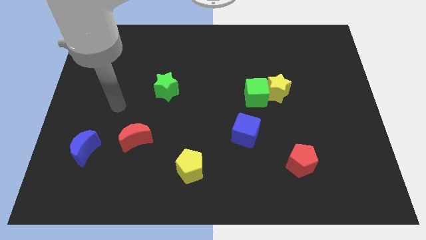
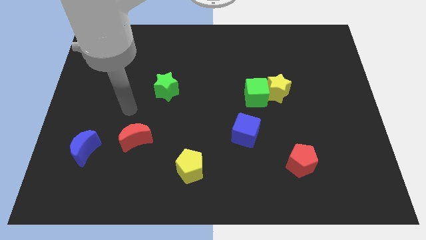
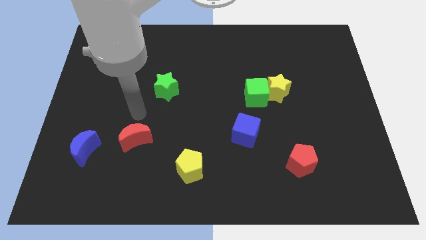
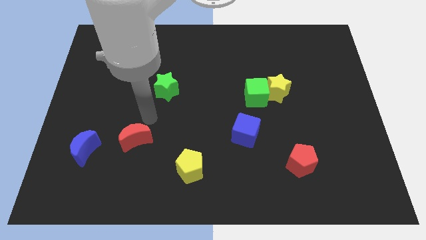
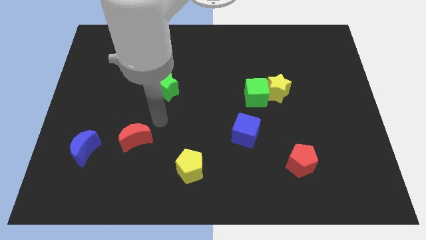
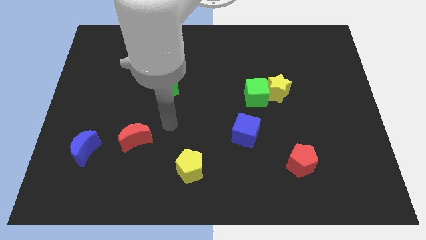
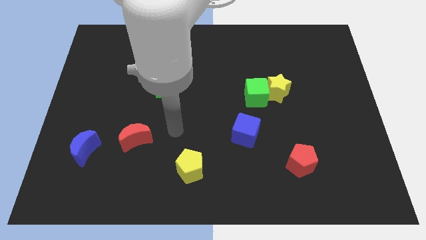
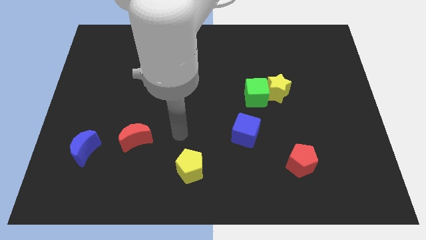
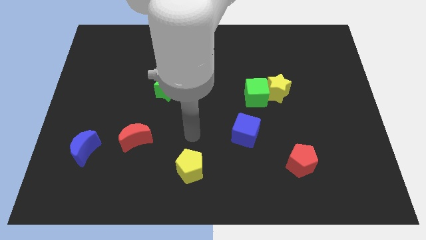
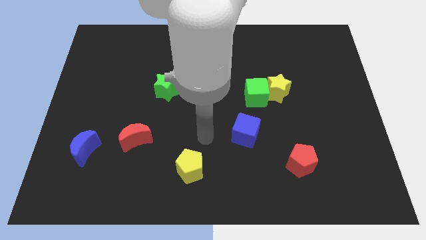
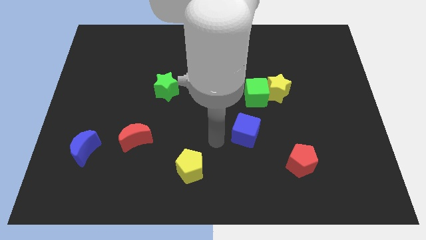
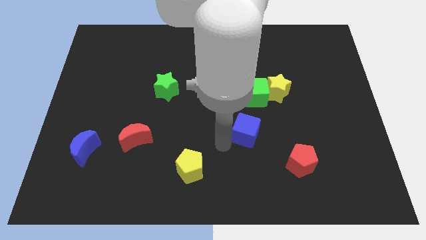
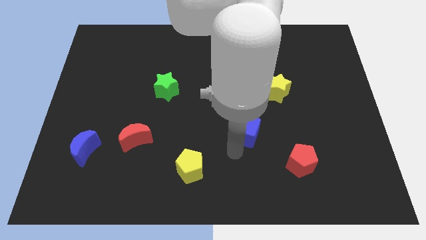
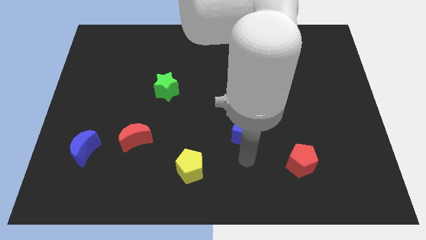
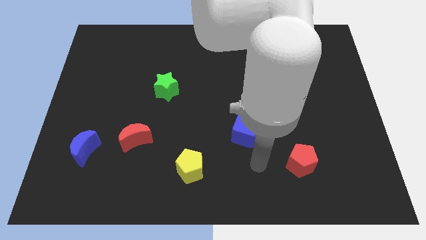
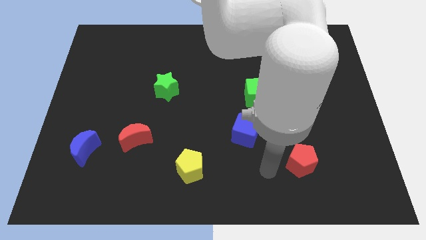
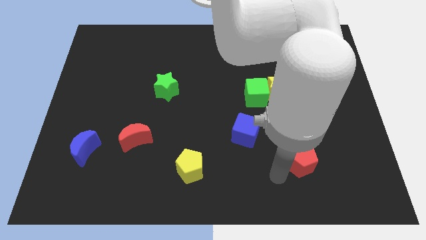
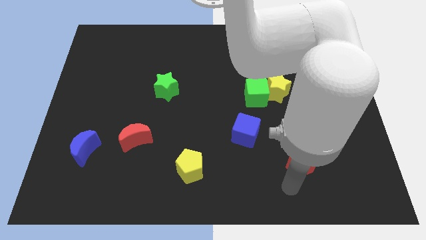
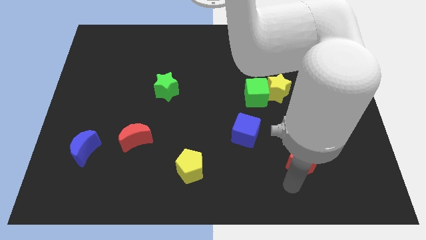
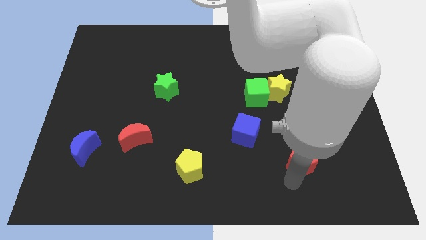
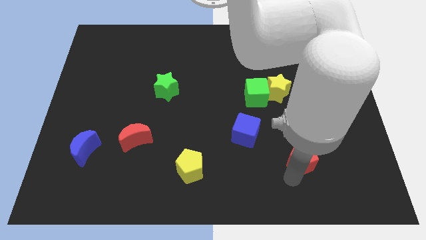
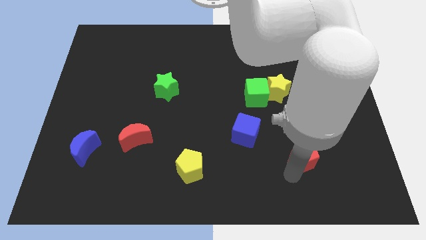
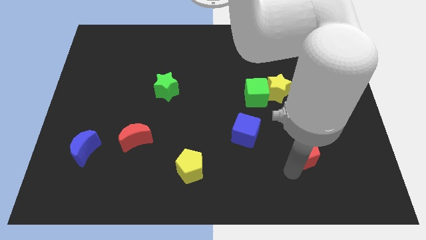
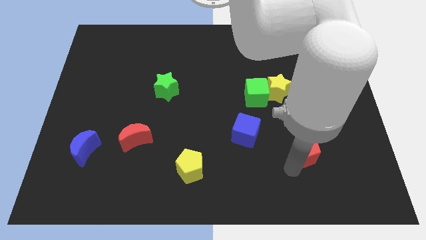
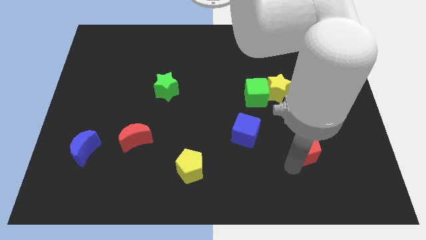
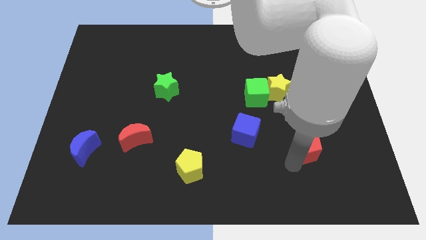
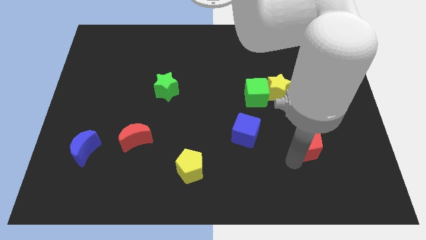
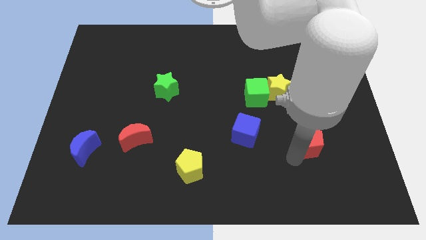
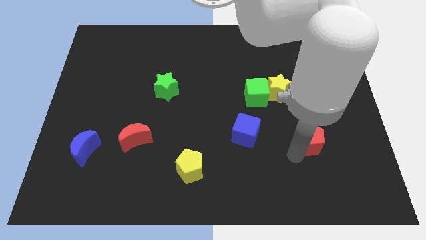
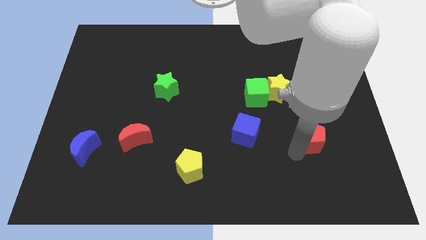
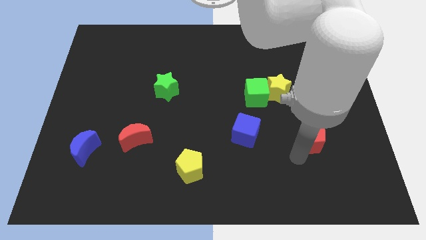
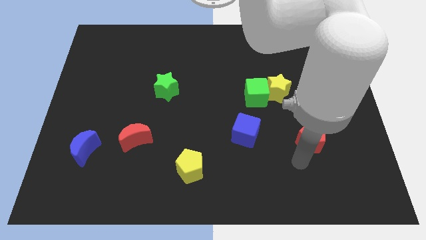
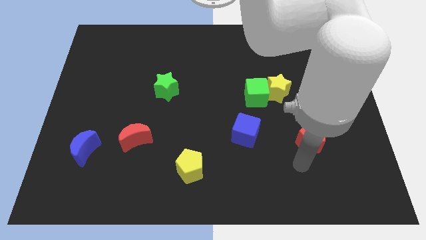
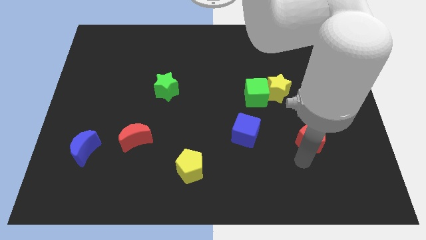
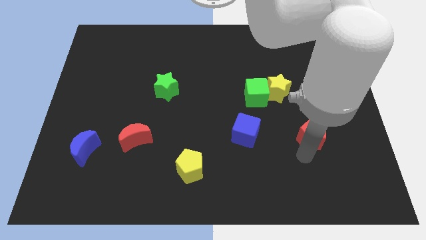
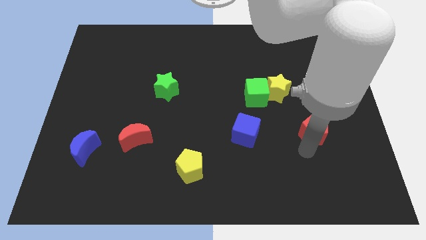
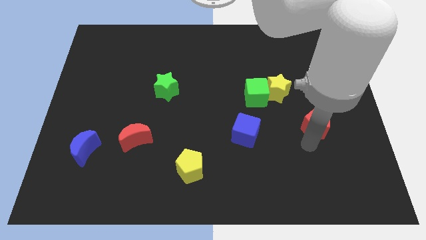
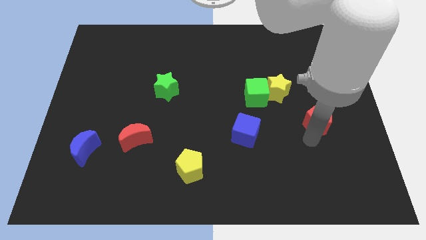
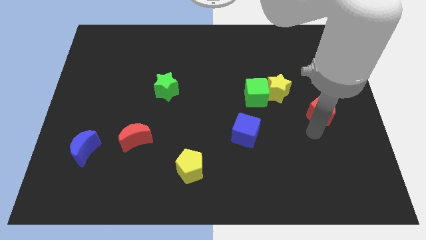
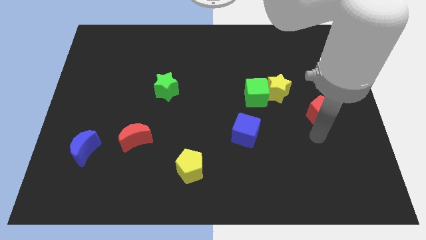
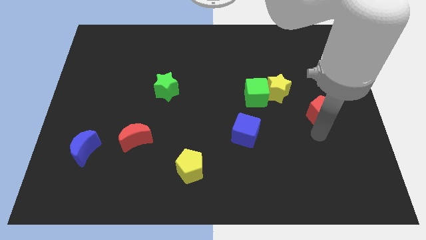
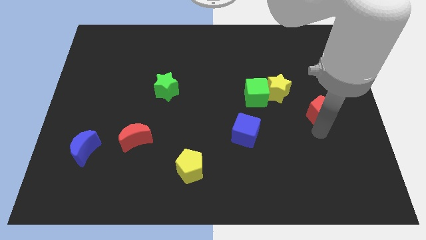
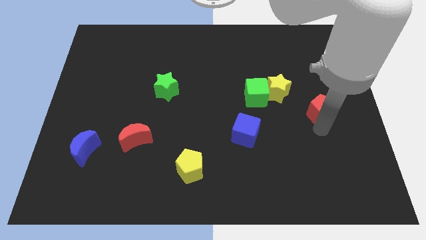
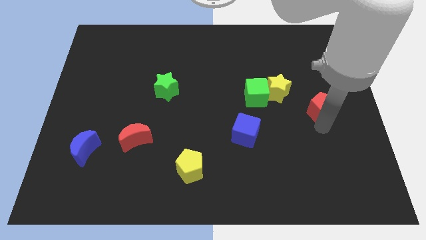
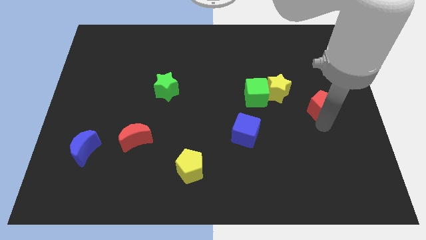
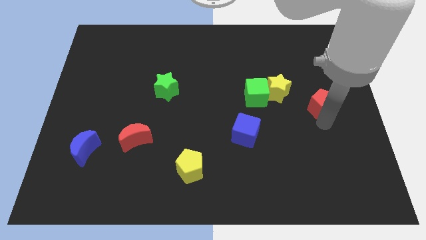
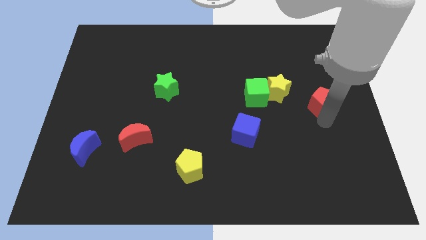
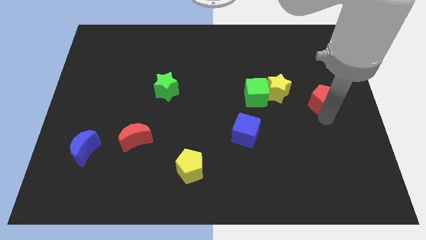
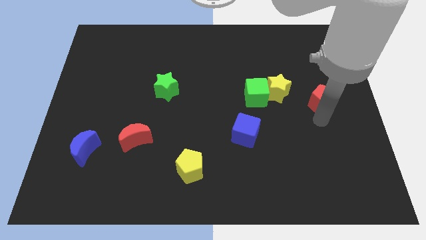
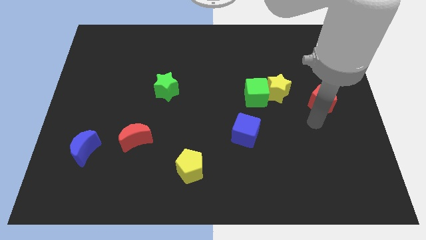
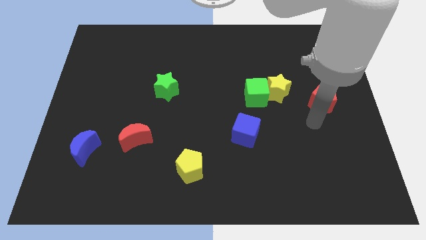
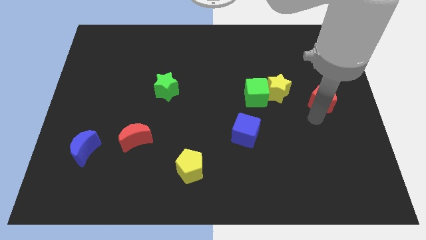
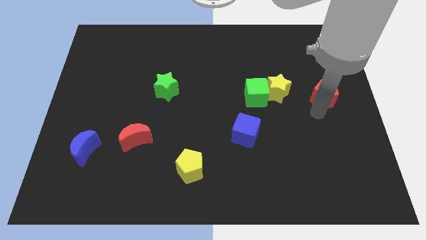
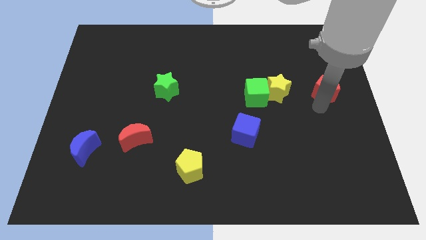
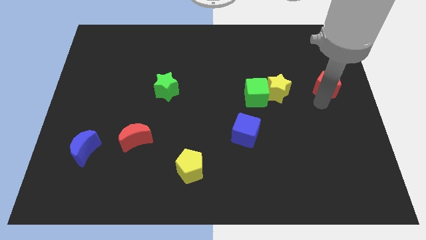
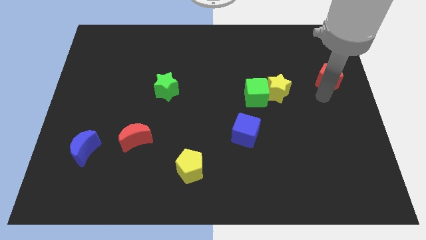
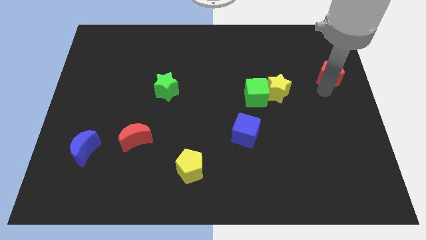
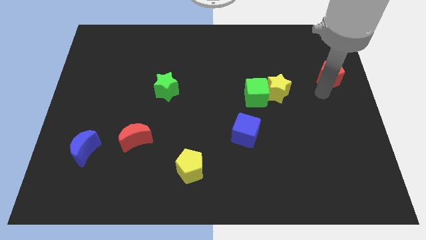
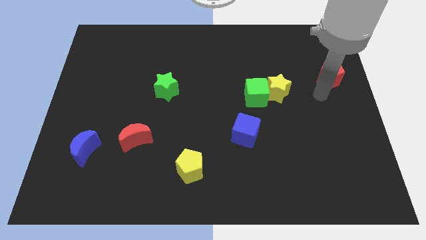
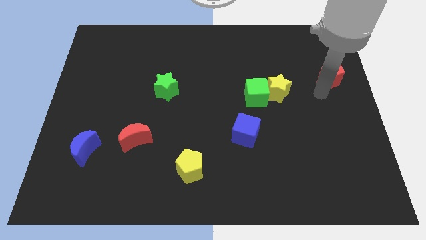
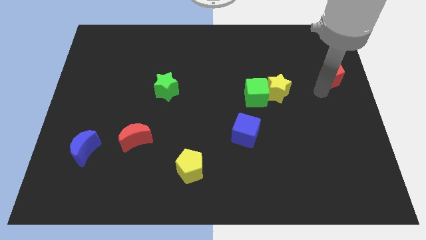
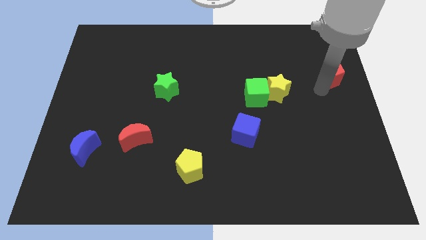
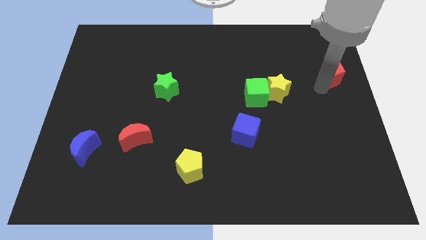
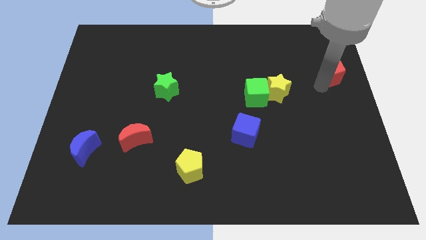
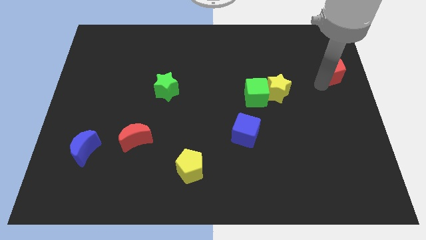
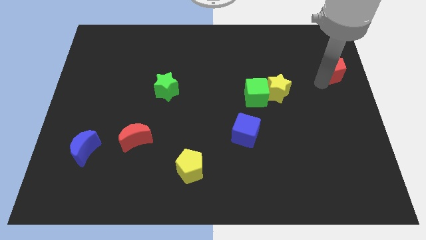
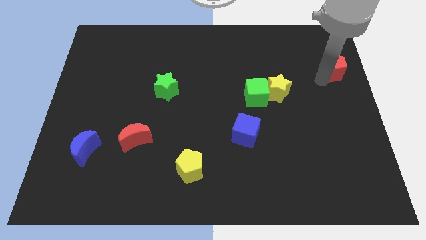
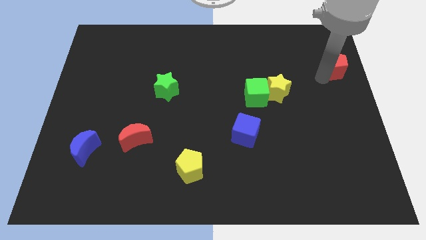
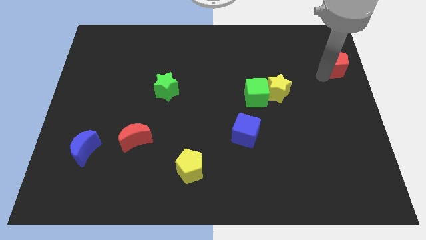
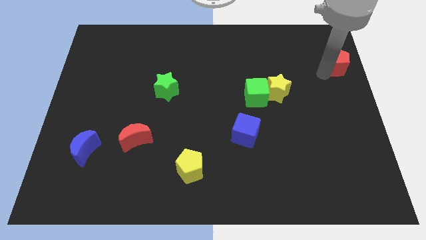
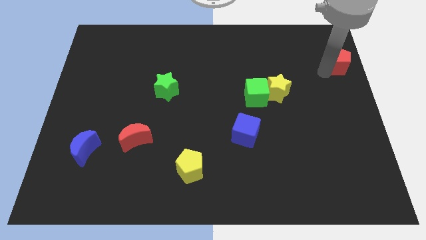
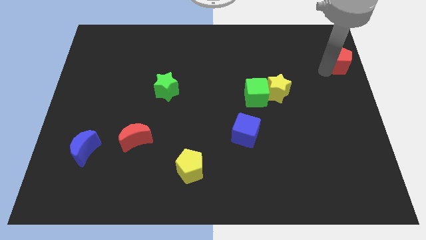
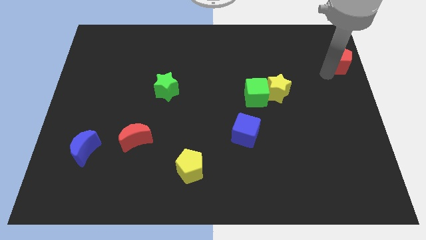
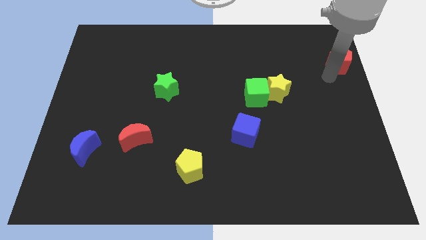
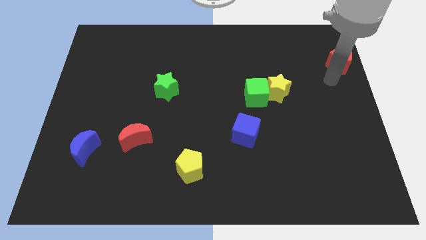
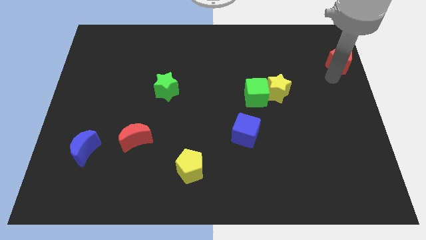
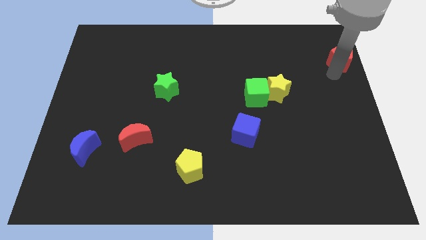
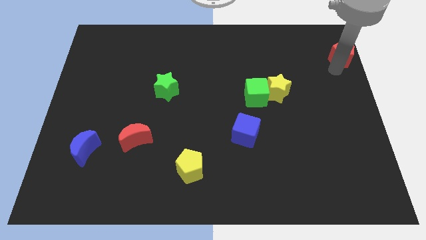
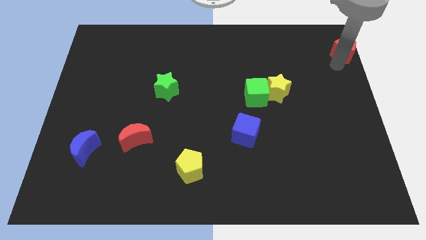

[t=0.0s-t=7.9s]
slide the red pentagon to the upper right corner
